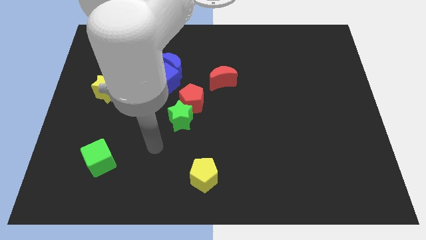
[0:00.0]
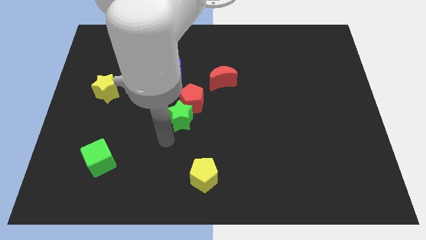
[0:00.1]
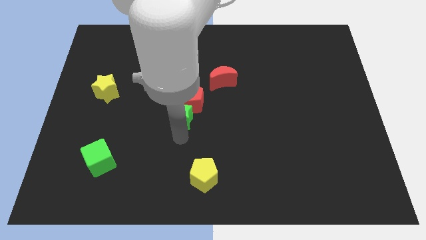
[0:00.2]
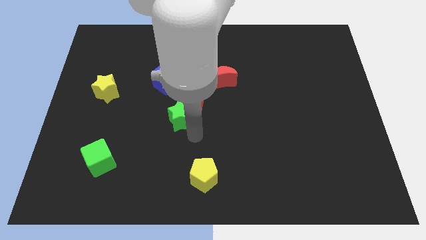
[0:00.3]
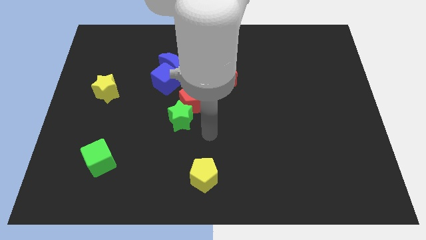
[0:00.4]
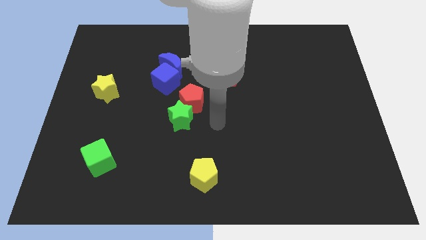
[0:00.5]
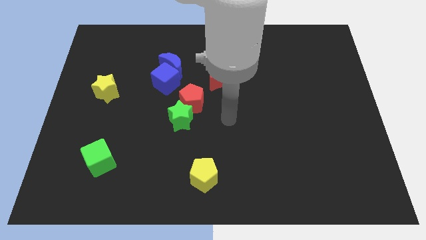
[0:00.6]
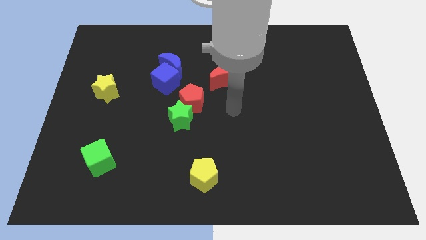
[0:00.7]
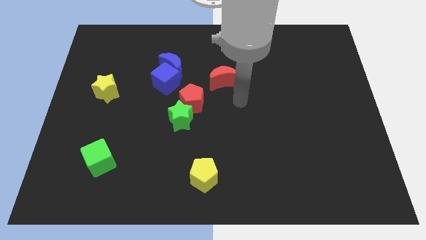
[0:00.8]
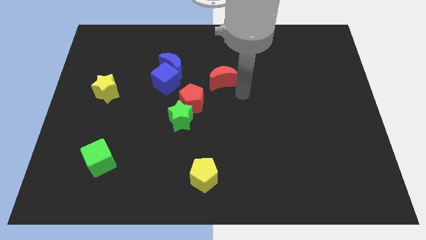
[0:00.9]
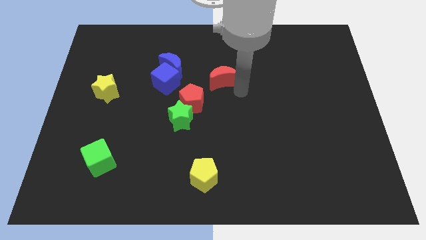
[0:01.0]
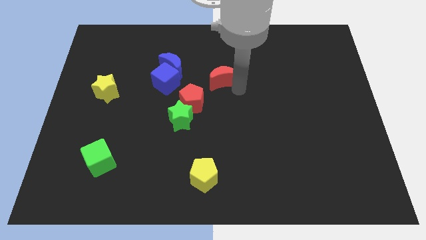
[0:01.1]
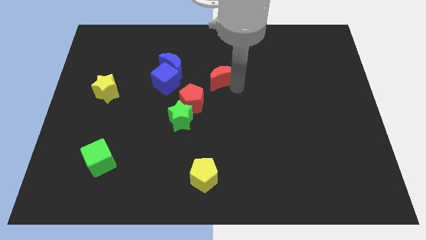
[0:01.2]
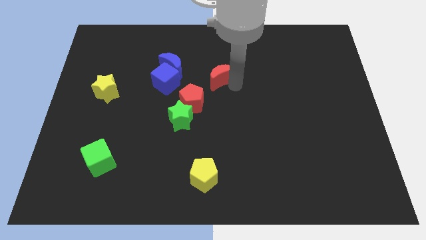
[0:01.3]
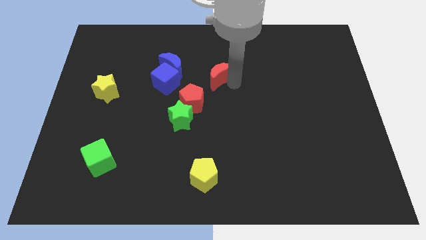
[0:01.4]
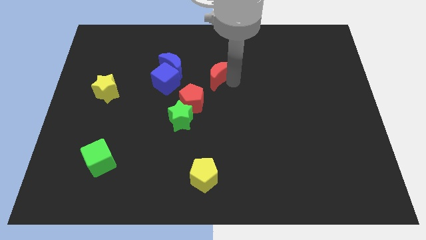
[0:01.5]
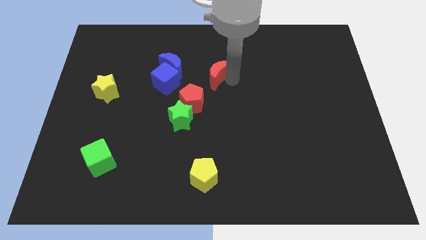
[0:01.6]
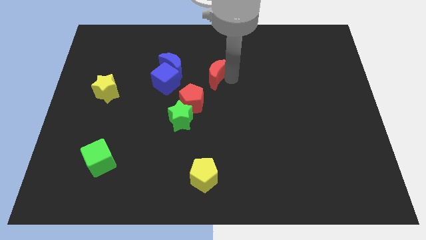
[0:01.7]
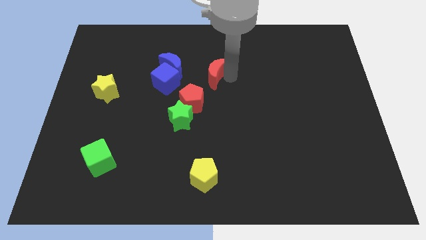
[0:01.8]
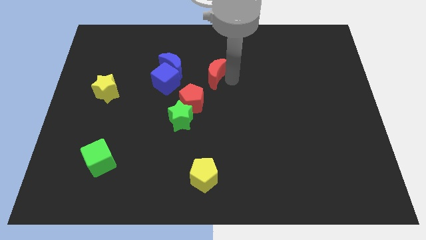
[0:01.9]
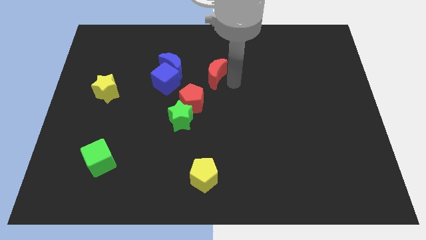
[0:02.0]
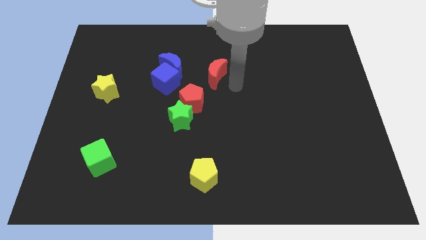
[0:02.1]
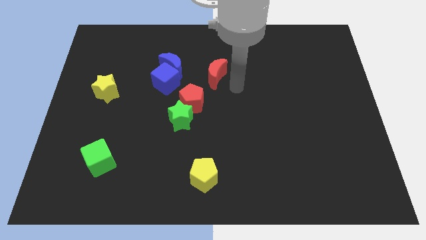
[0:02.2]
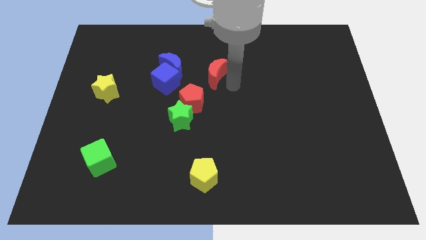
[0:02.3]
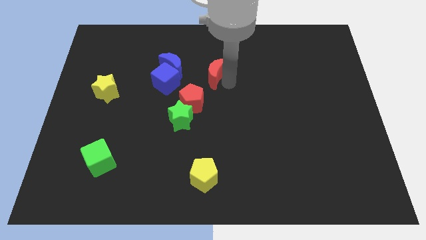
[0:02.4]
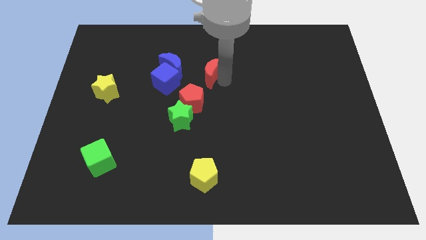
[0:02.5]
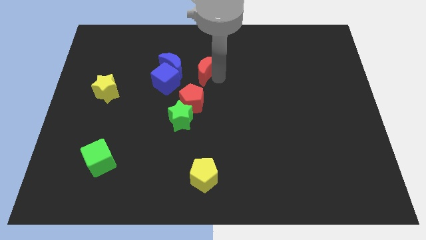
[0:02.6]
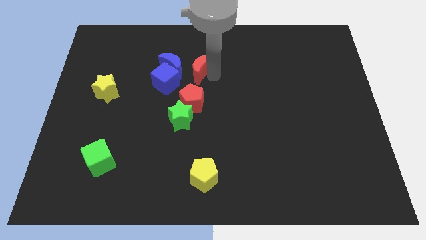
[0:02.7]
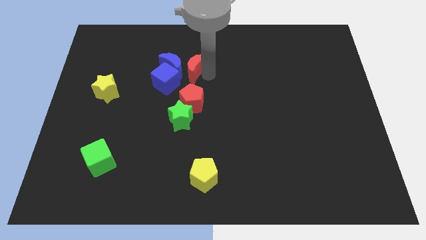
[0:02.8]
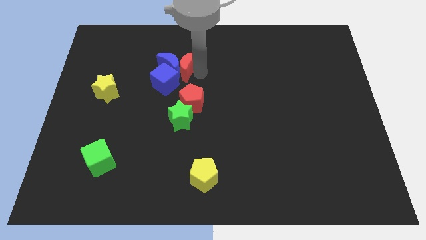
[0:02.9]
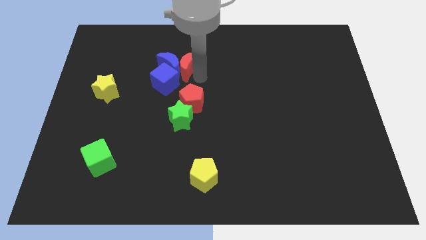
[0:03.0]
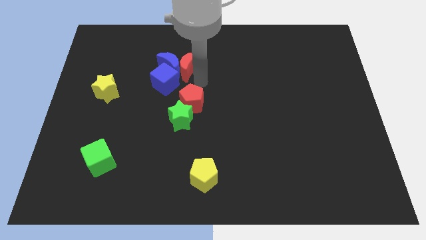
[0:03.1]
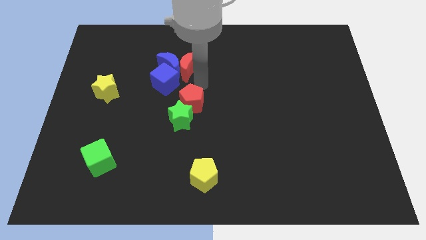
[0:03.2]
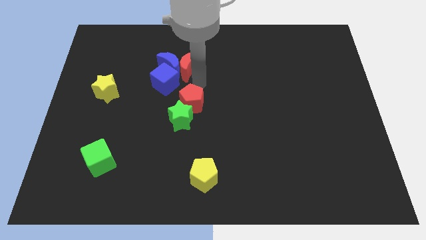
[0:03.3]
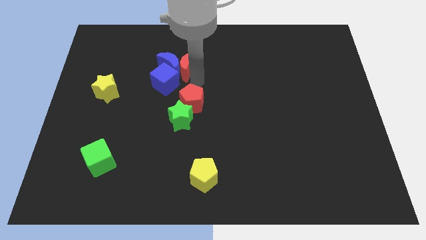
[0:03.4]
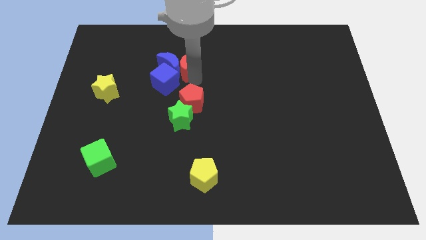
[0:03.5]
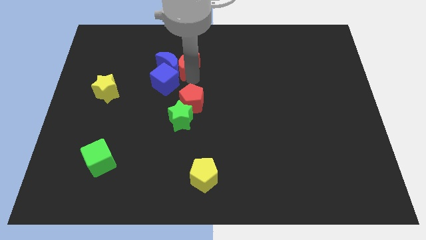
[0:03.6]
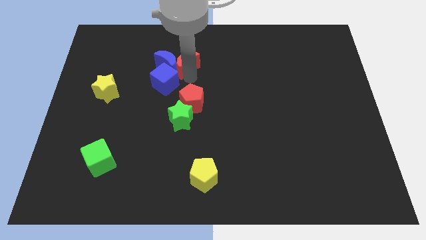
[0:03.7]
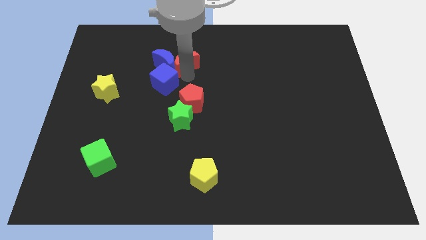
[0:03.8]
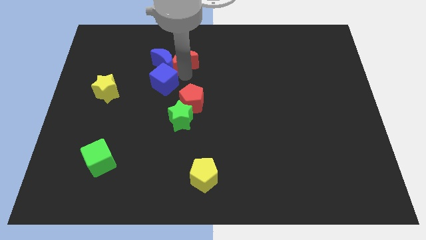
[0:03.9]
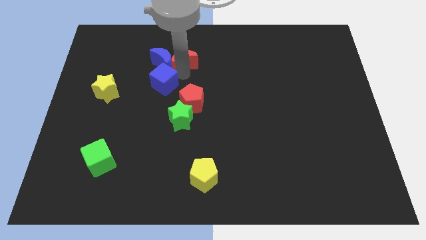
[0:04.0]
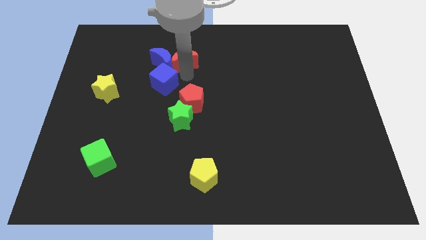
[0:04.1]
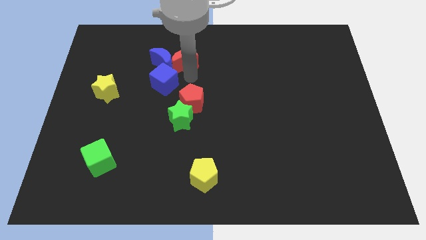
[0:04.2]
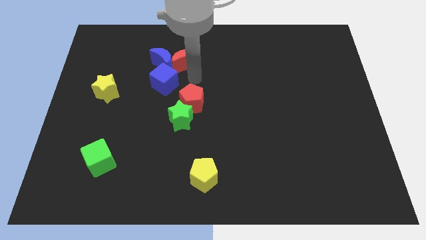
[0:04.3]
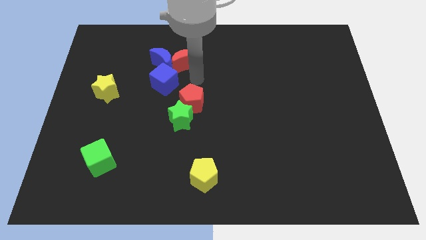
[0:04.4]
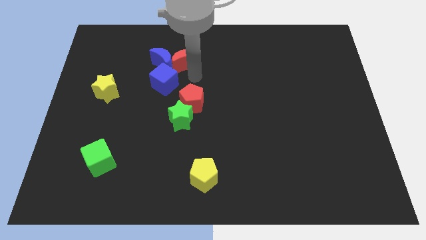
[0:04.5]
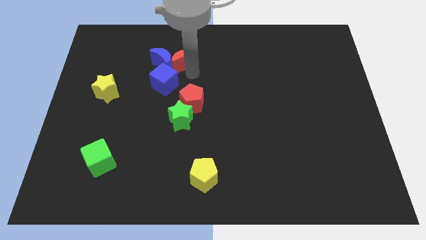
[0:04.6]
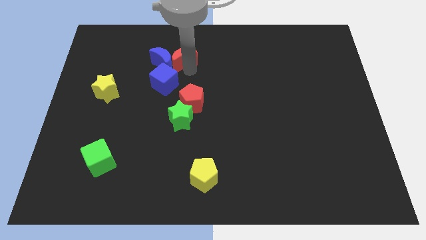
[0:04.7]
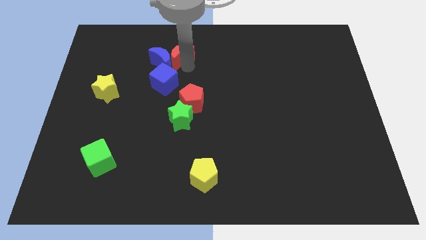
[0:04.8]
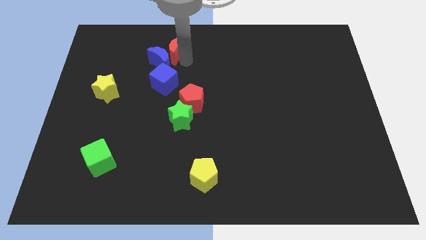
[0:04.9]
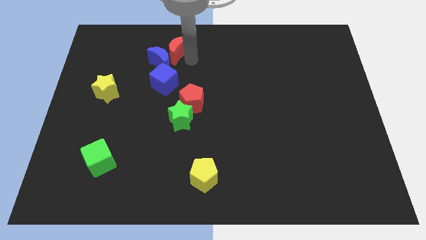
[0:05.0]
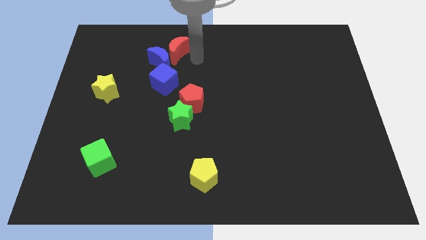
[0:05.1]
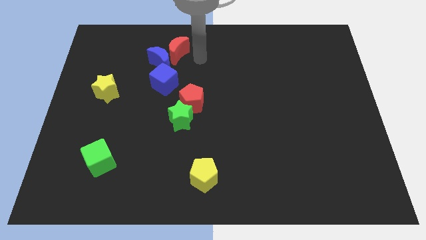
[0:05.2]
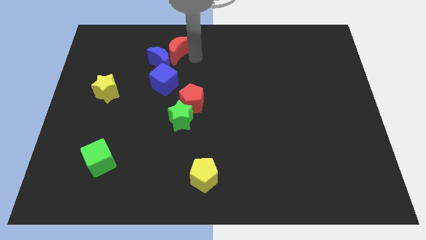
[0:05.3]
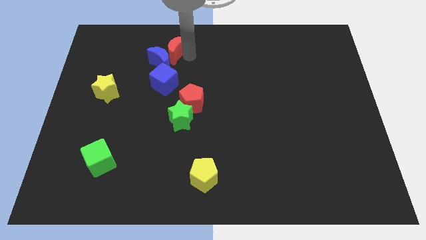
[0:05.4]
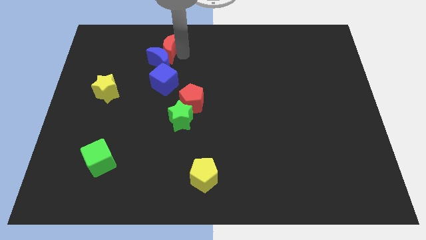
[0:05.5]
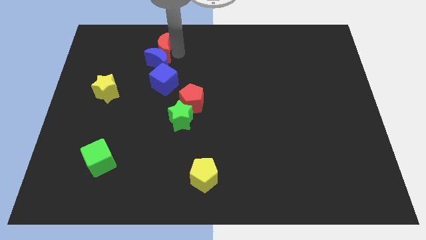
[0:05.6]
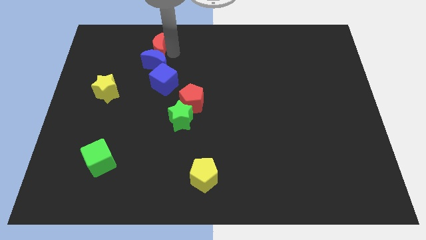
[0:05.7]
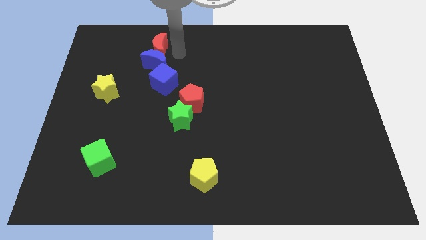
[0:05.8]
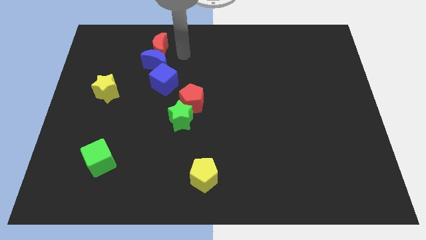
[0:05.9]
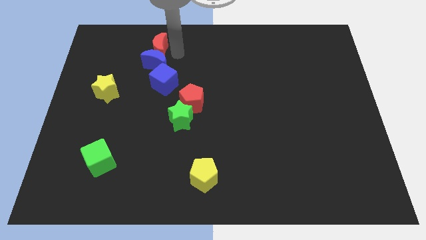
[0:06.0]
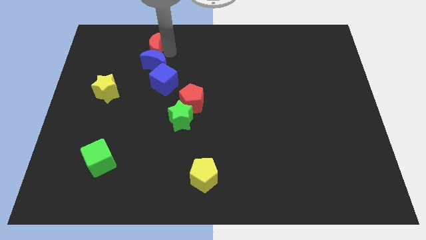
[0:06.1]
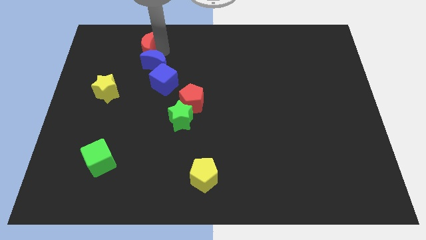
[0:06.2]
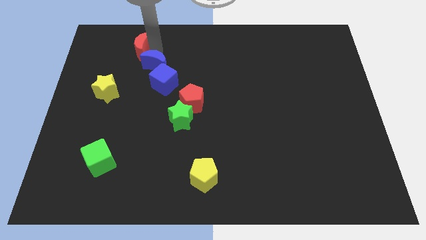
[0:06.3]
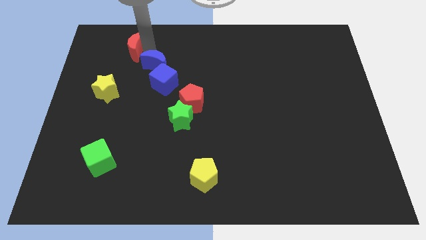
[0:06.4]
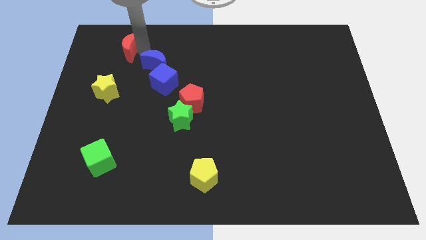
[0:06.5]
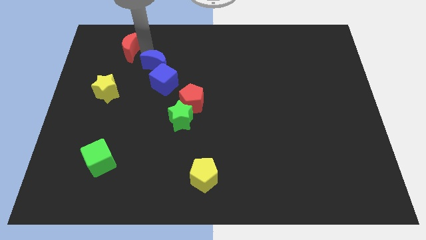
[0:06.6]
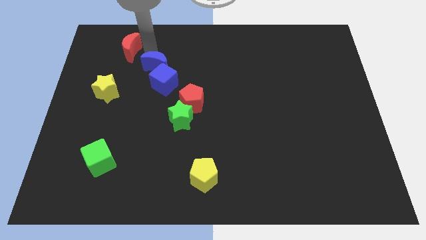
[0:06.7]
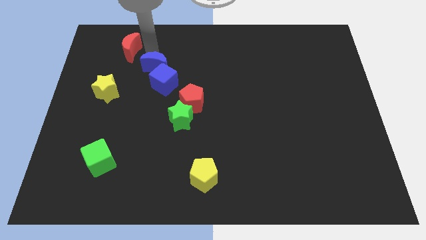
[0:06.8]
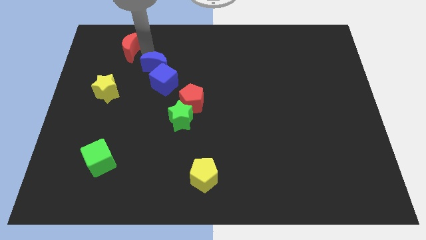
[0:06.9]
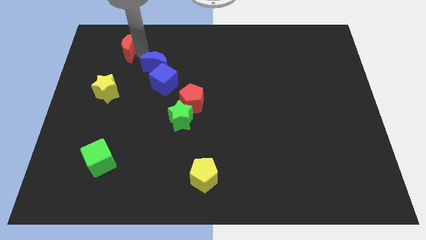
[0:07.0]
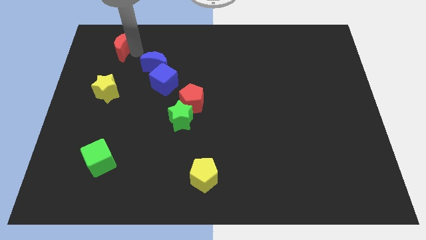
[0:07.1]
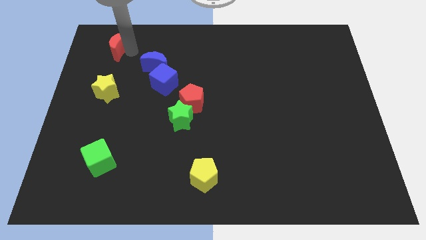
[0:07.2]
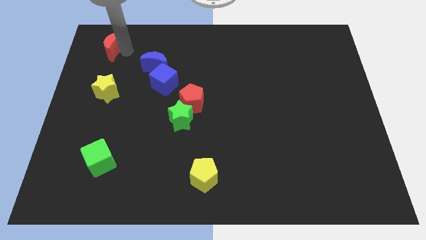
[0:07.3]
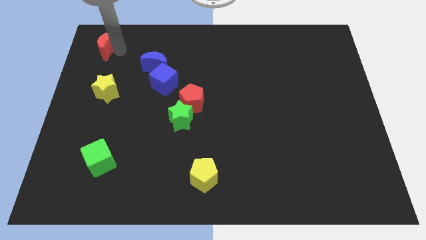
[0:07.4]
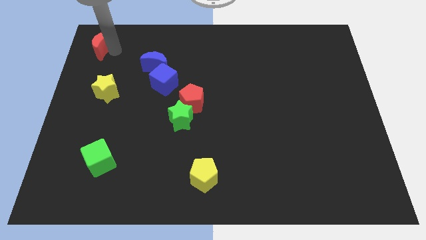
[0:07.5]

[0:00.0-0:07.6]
push the red moon to the top left of the board
